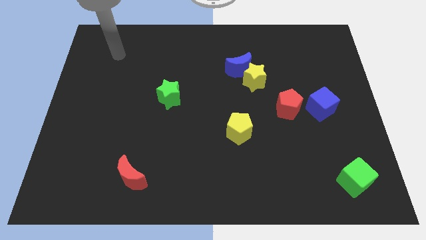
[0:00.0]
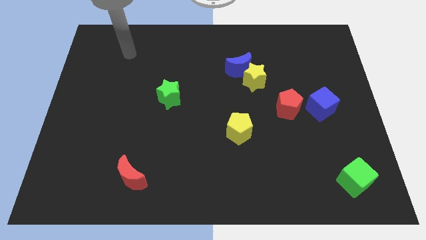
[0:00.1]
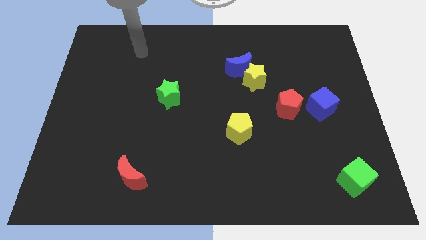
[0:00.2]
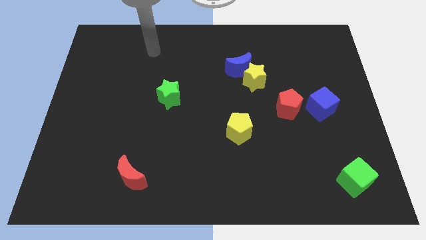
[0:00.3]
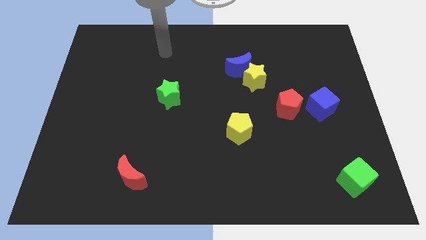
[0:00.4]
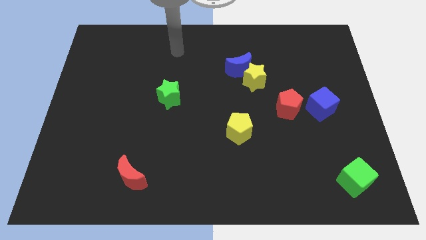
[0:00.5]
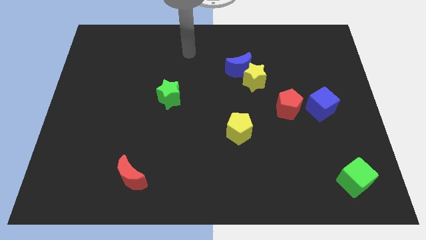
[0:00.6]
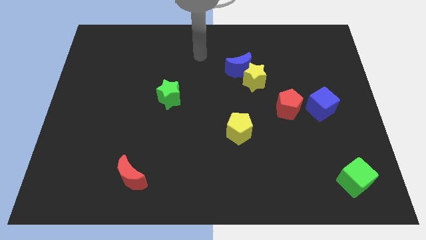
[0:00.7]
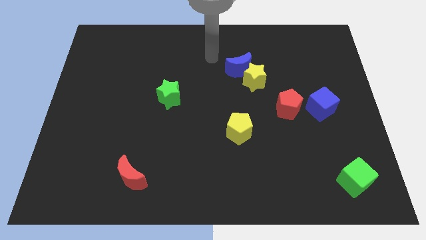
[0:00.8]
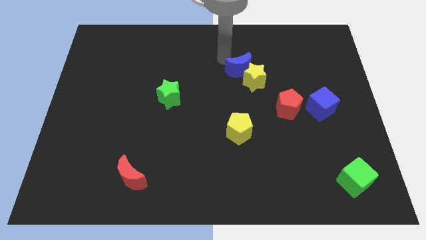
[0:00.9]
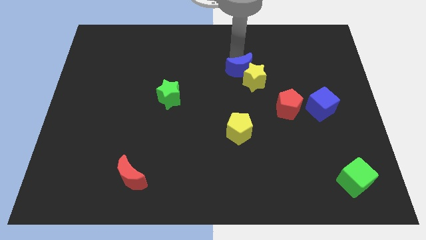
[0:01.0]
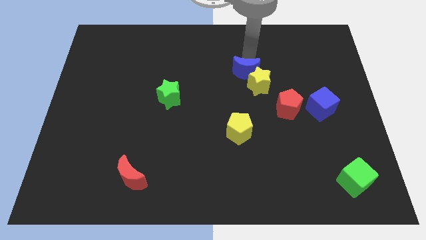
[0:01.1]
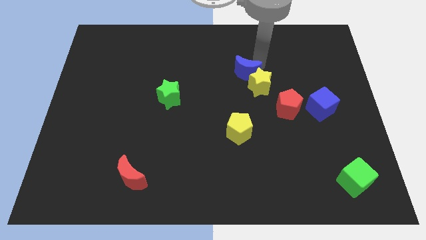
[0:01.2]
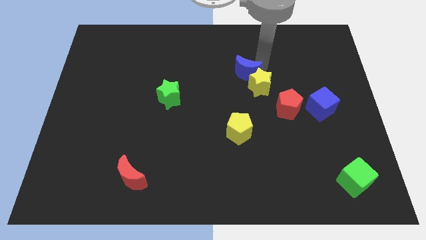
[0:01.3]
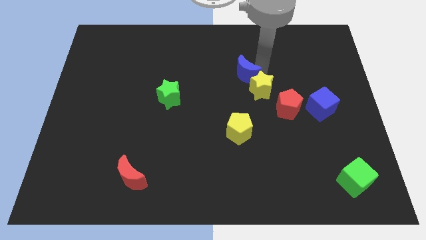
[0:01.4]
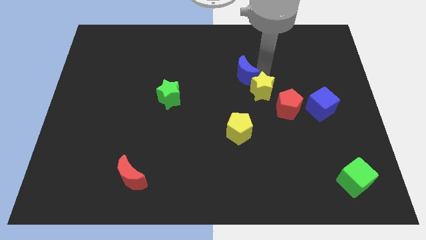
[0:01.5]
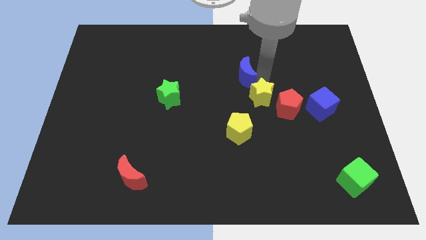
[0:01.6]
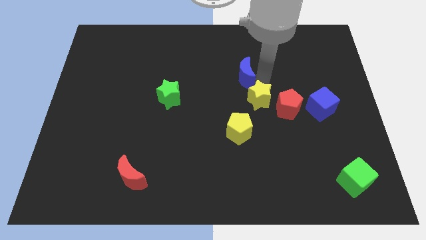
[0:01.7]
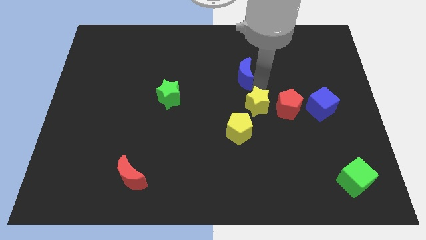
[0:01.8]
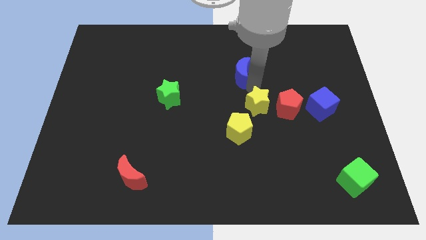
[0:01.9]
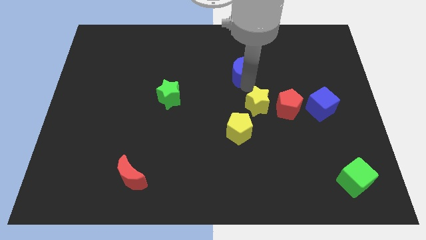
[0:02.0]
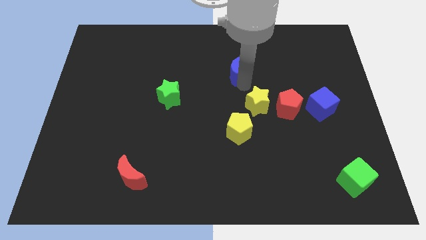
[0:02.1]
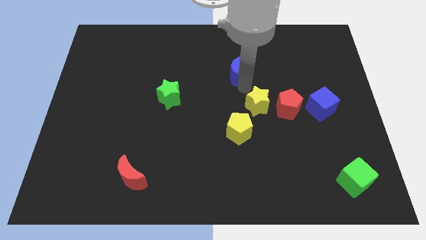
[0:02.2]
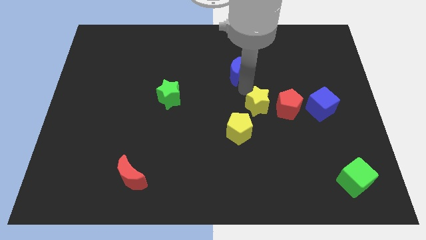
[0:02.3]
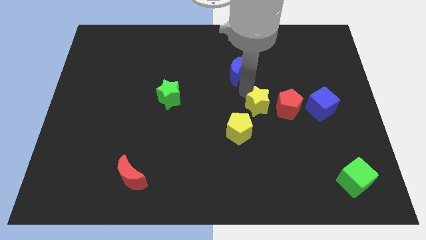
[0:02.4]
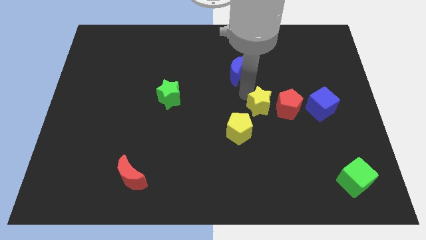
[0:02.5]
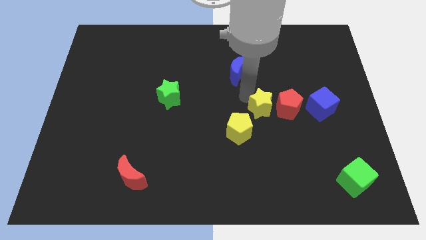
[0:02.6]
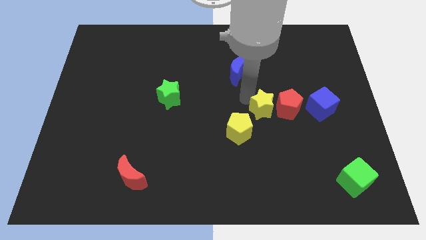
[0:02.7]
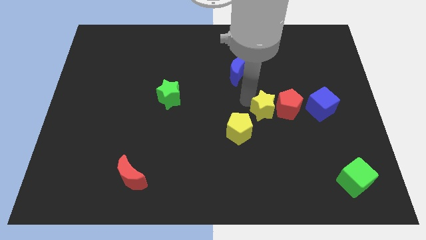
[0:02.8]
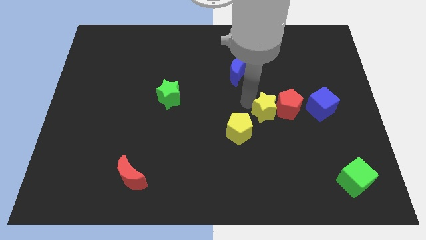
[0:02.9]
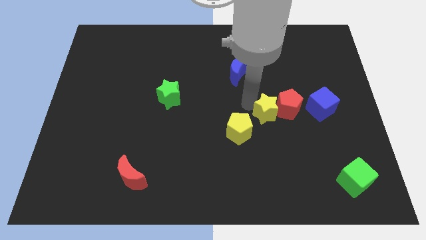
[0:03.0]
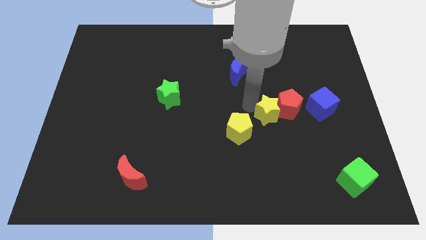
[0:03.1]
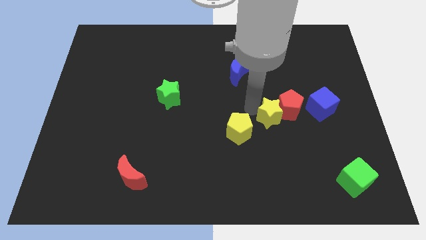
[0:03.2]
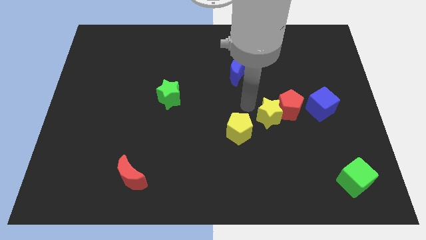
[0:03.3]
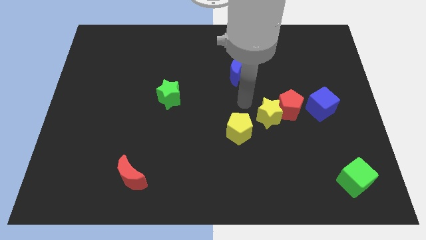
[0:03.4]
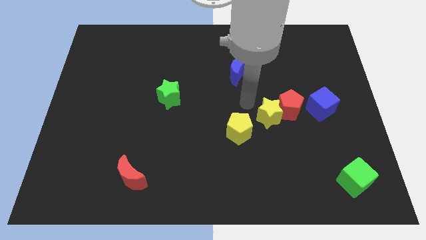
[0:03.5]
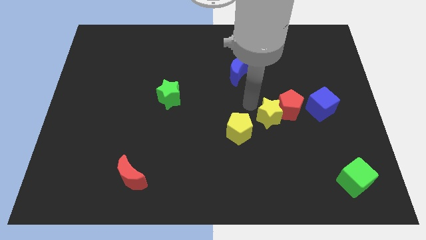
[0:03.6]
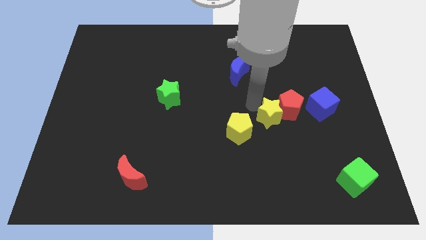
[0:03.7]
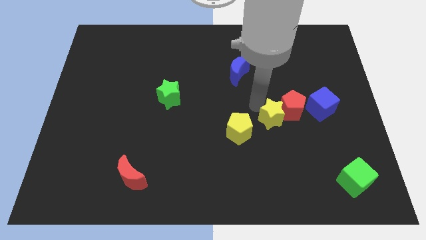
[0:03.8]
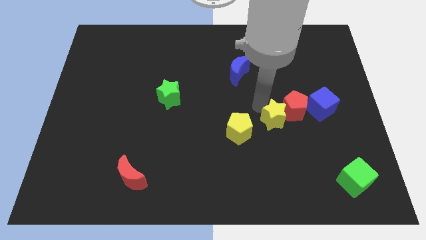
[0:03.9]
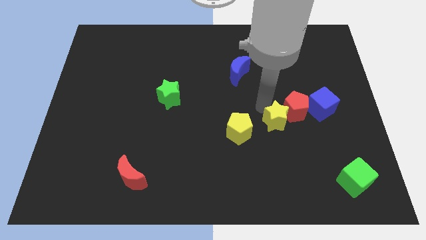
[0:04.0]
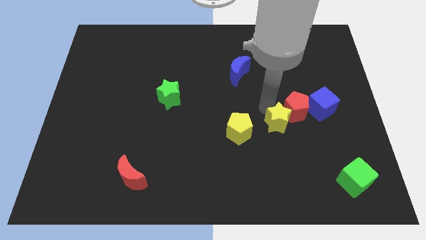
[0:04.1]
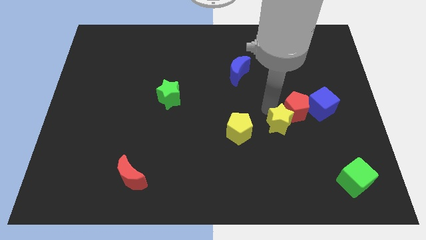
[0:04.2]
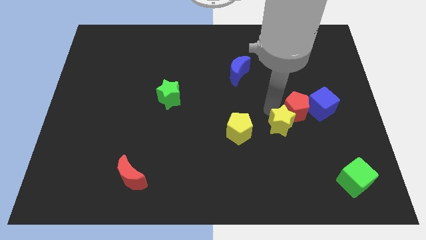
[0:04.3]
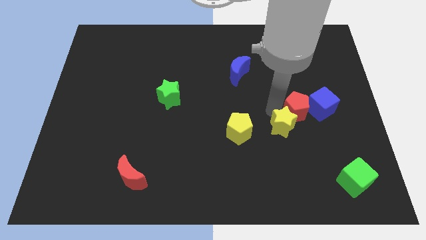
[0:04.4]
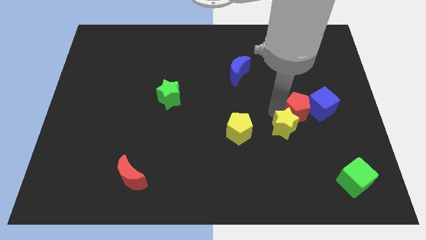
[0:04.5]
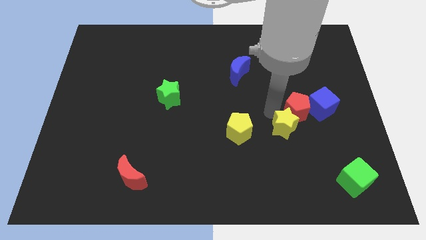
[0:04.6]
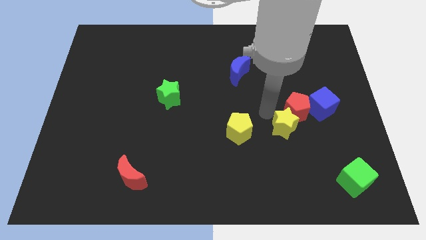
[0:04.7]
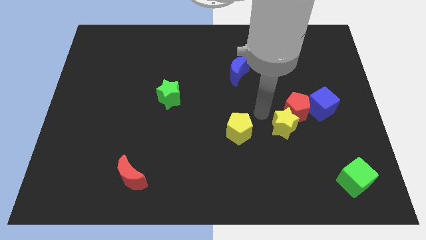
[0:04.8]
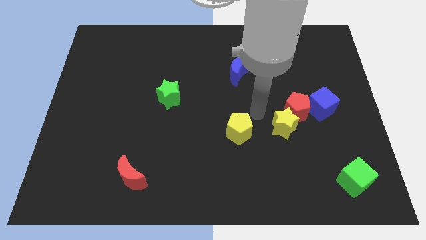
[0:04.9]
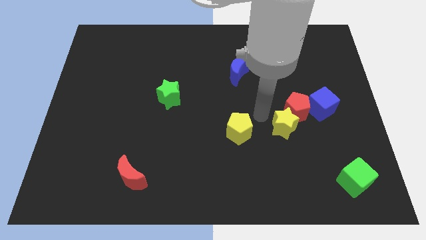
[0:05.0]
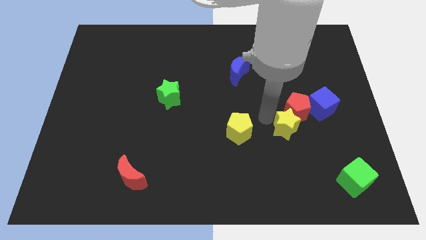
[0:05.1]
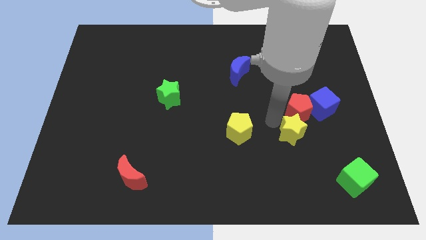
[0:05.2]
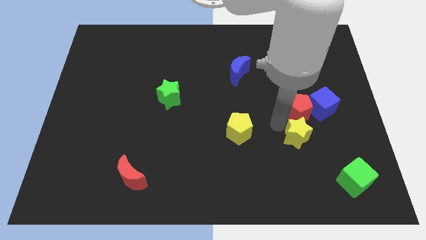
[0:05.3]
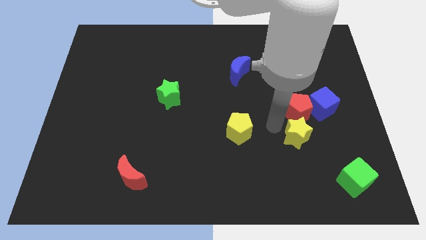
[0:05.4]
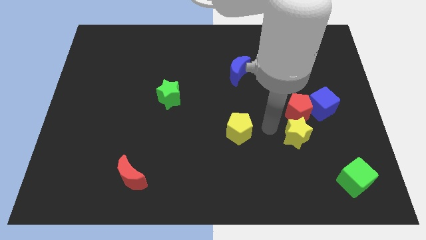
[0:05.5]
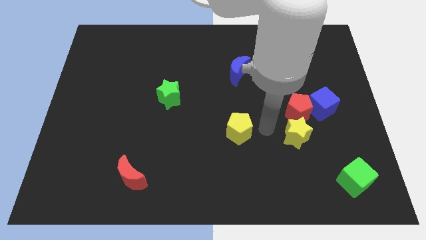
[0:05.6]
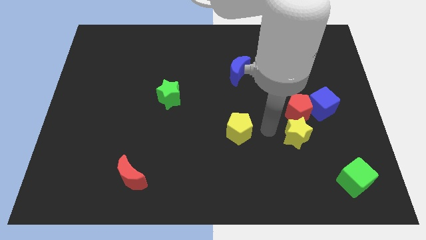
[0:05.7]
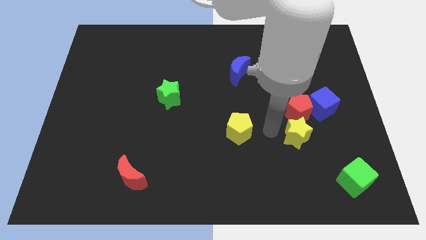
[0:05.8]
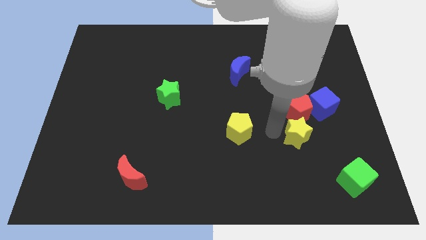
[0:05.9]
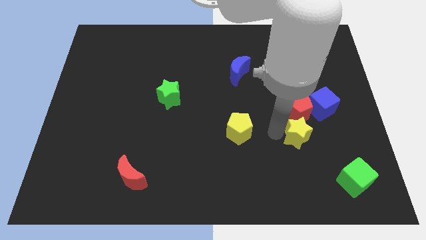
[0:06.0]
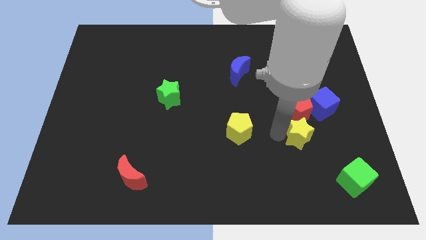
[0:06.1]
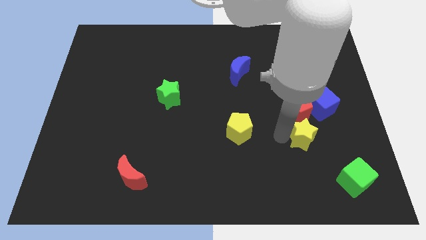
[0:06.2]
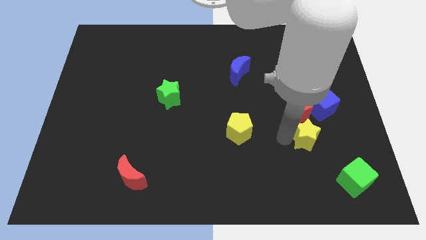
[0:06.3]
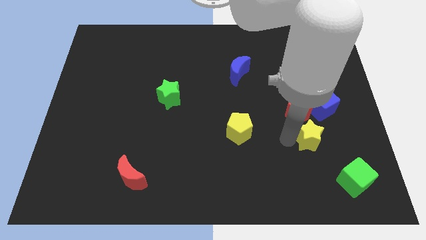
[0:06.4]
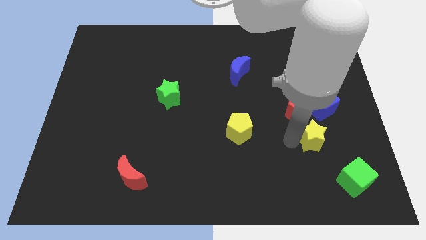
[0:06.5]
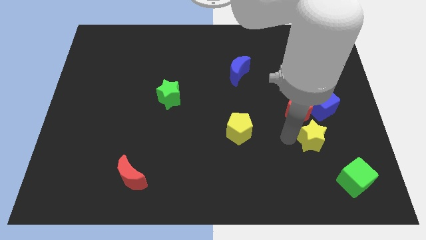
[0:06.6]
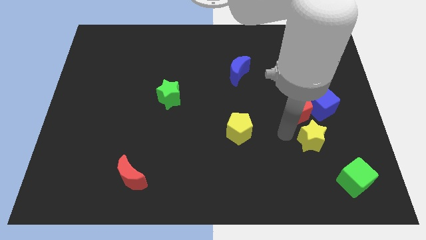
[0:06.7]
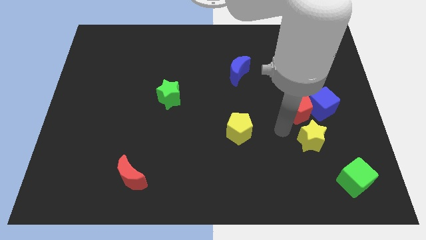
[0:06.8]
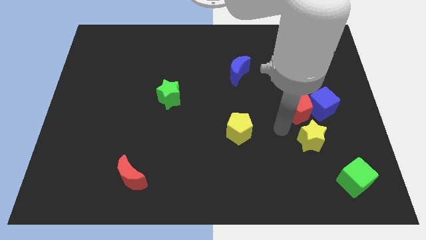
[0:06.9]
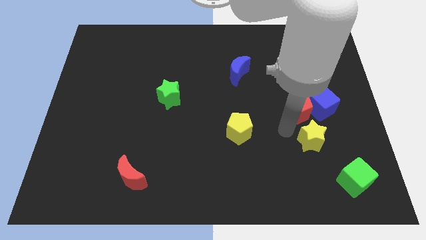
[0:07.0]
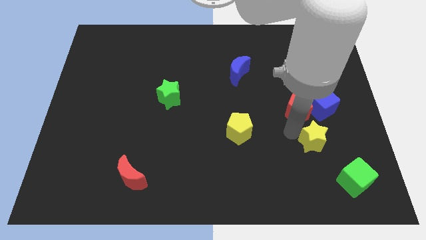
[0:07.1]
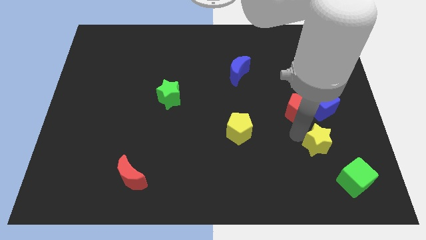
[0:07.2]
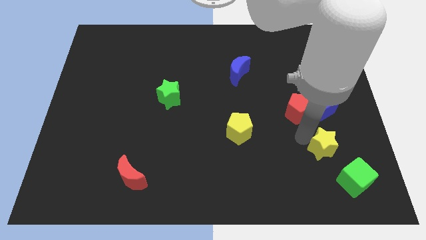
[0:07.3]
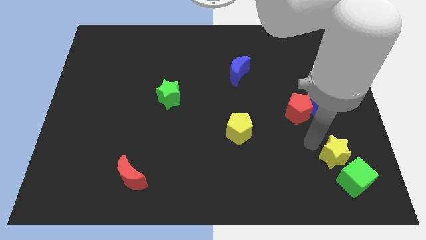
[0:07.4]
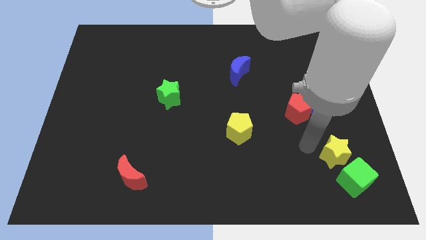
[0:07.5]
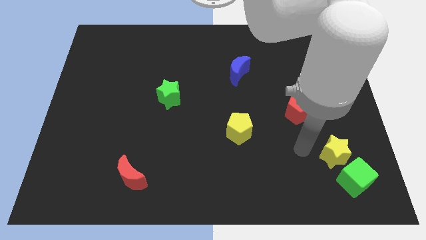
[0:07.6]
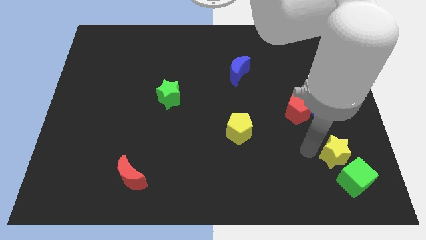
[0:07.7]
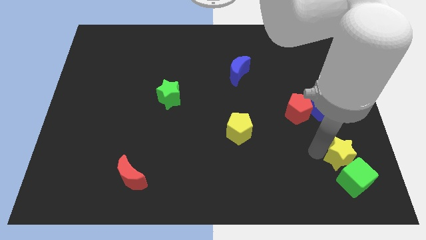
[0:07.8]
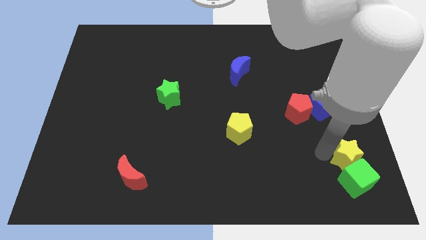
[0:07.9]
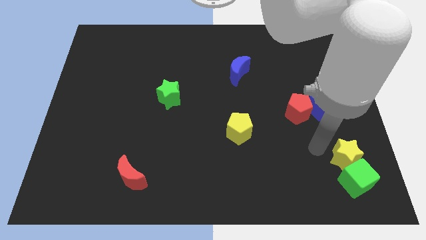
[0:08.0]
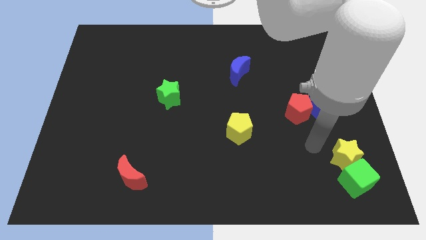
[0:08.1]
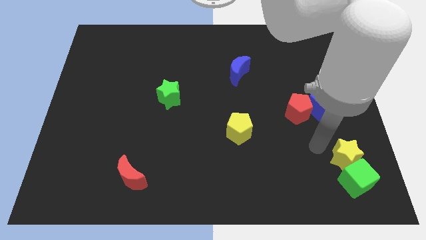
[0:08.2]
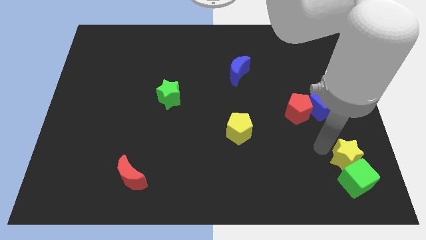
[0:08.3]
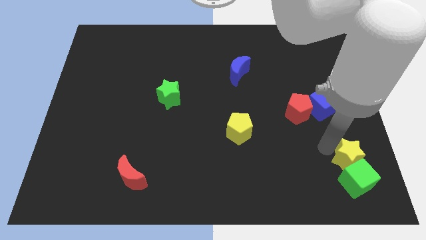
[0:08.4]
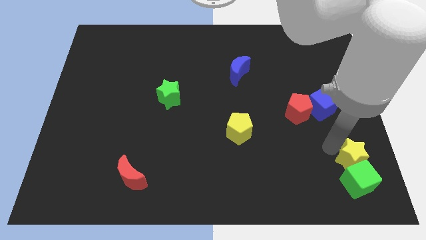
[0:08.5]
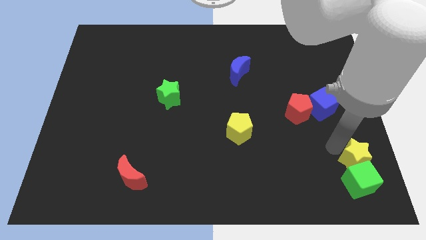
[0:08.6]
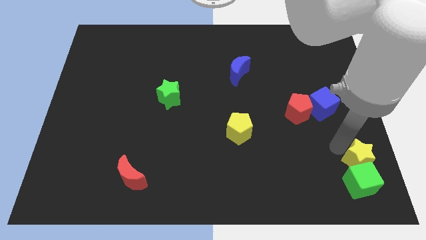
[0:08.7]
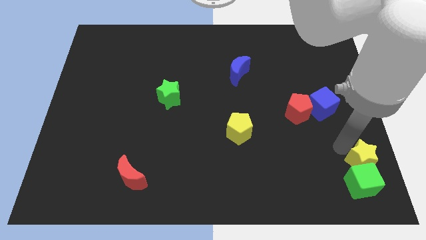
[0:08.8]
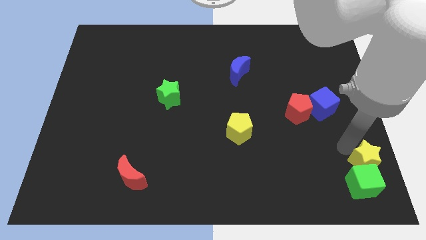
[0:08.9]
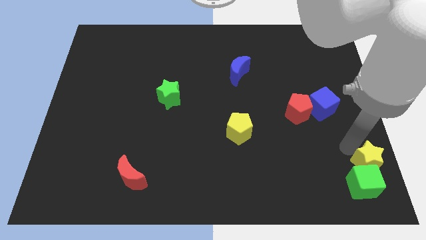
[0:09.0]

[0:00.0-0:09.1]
push the yellow star to the bottom right corner
